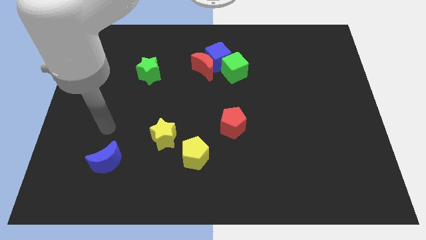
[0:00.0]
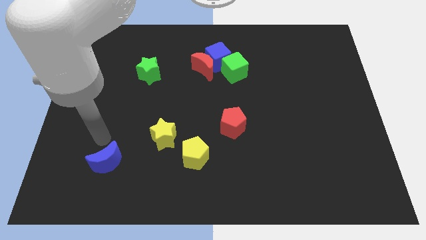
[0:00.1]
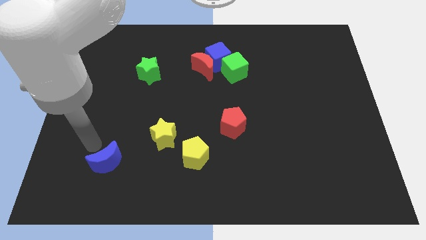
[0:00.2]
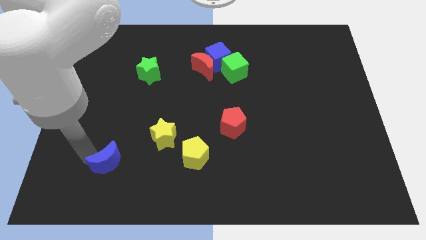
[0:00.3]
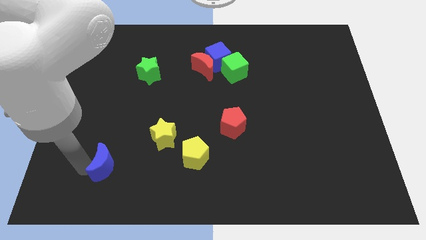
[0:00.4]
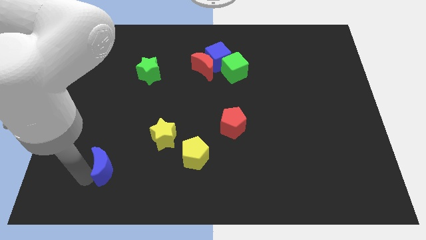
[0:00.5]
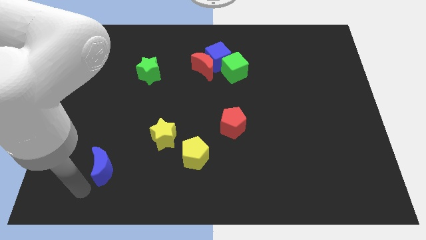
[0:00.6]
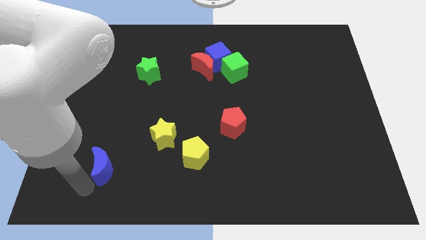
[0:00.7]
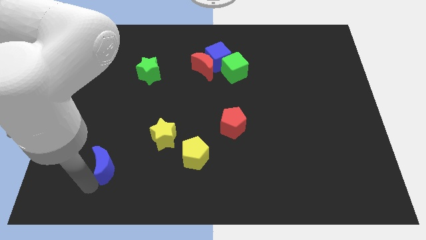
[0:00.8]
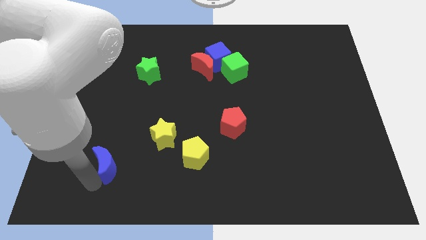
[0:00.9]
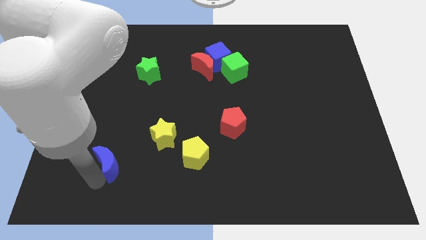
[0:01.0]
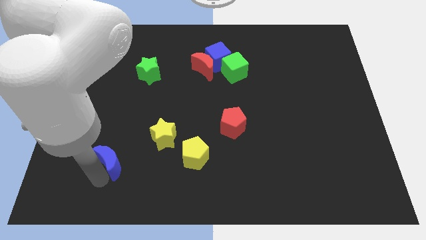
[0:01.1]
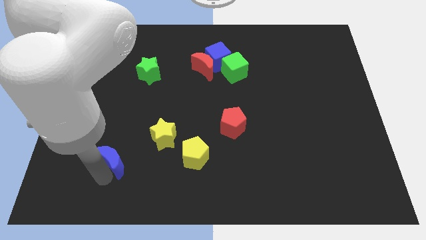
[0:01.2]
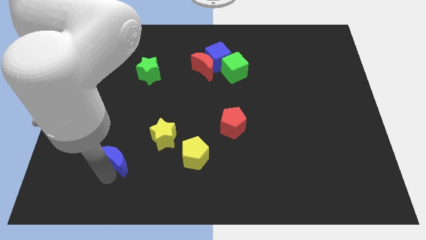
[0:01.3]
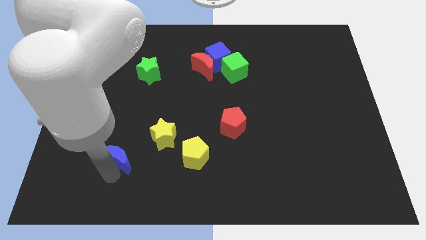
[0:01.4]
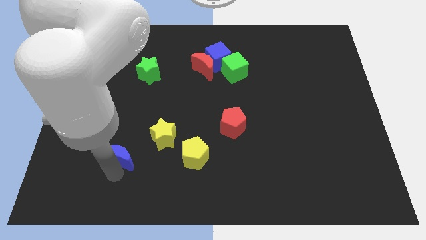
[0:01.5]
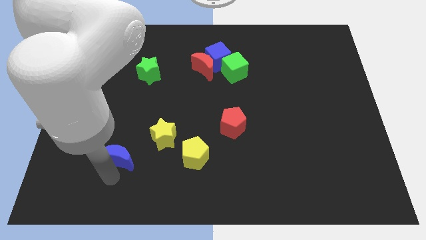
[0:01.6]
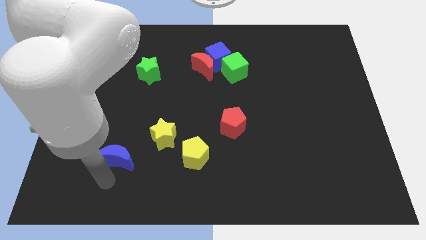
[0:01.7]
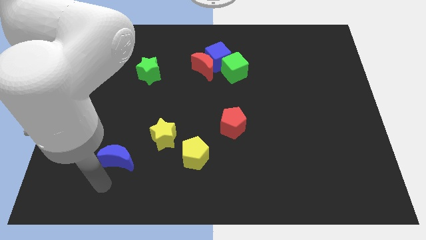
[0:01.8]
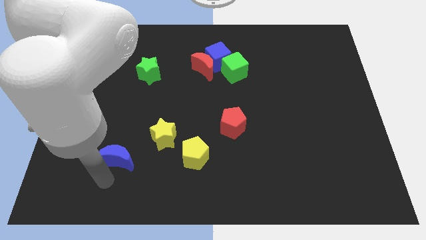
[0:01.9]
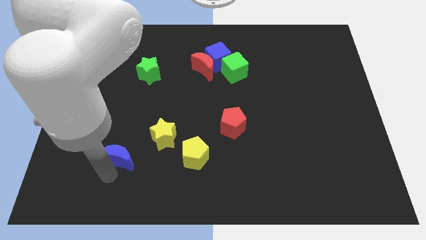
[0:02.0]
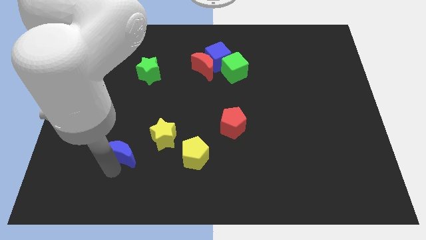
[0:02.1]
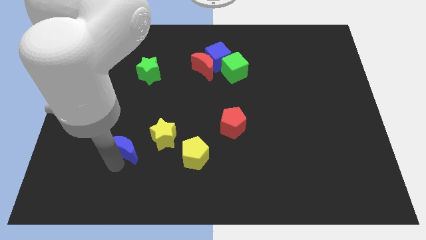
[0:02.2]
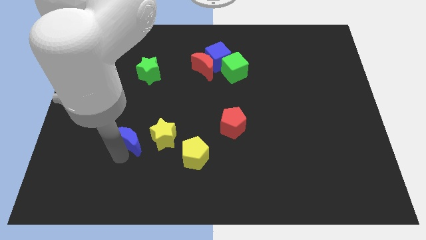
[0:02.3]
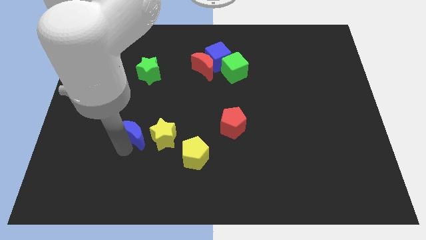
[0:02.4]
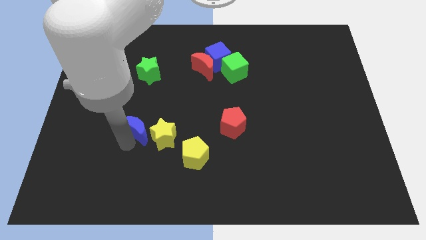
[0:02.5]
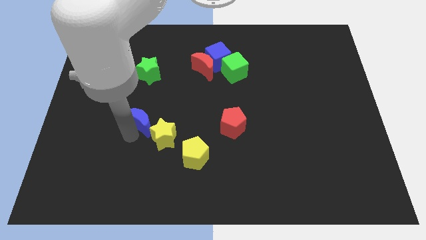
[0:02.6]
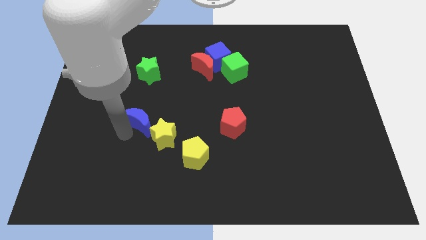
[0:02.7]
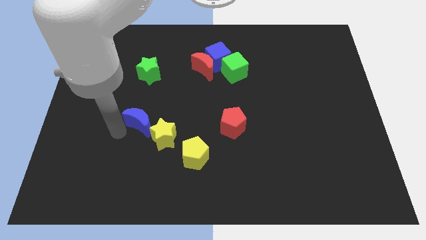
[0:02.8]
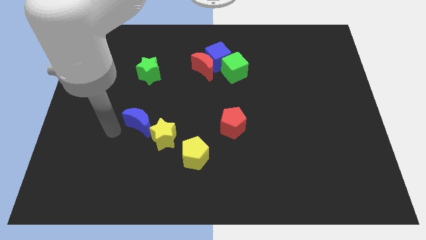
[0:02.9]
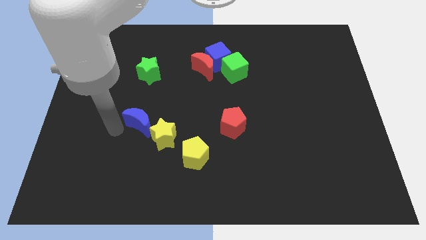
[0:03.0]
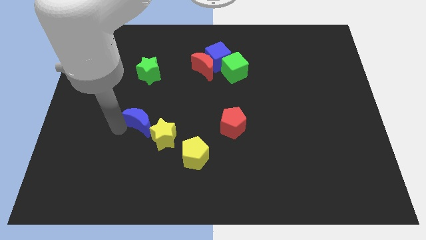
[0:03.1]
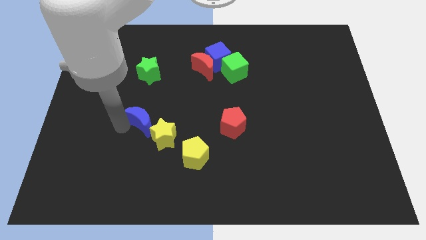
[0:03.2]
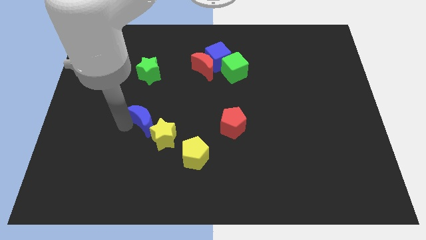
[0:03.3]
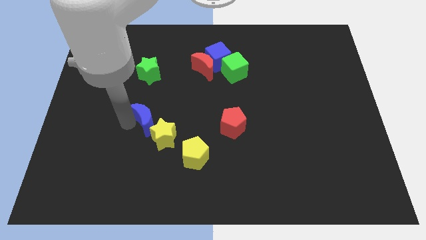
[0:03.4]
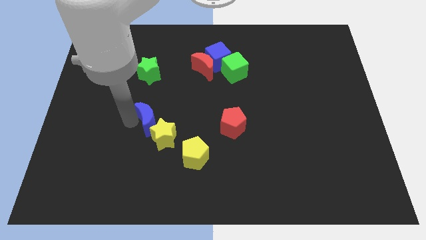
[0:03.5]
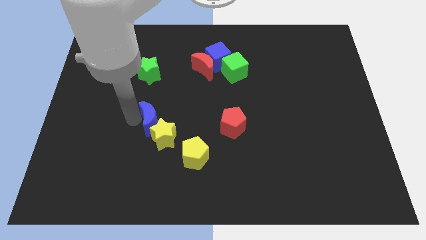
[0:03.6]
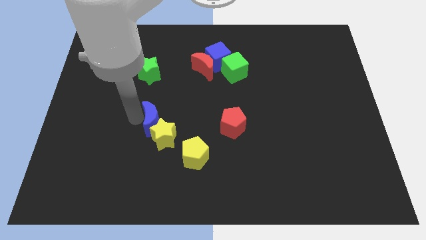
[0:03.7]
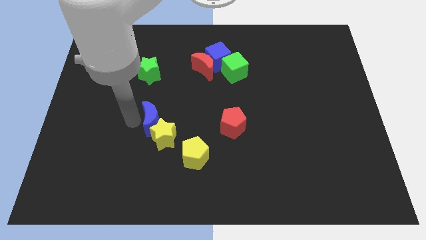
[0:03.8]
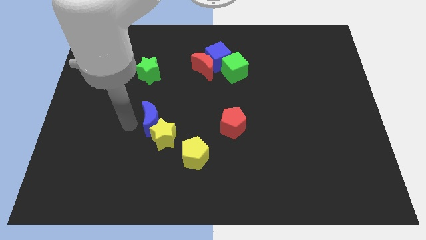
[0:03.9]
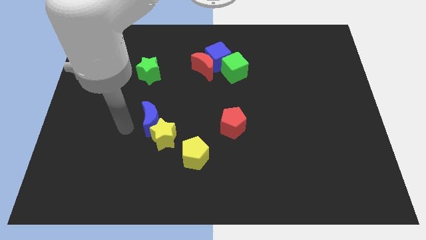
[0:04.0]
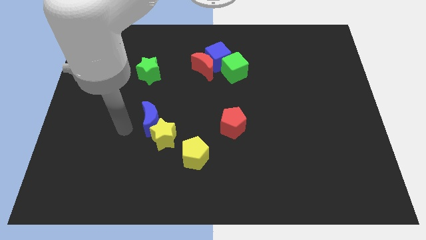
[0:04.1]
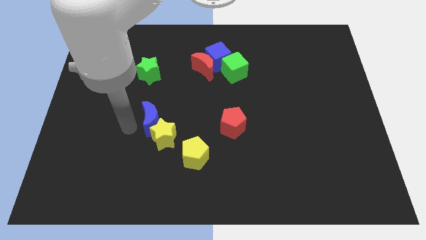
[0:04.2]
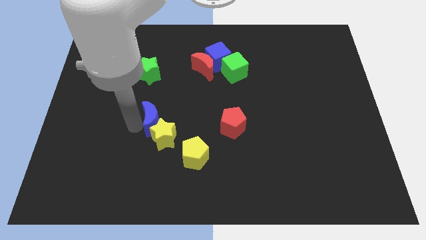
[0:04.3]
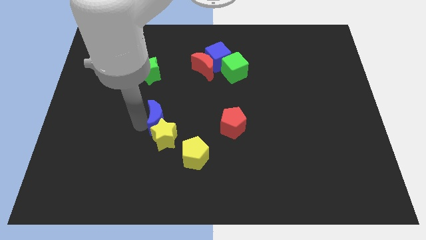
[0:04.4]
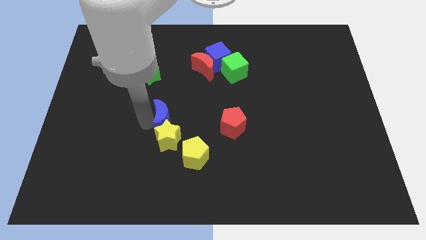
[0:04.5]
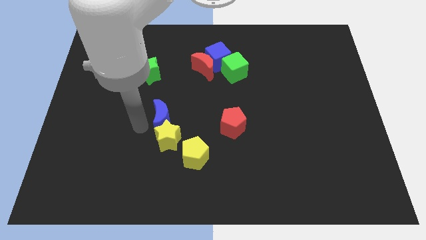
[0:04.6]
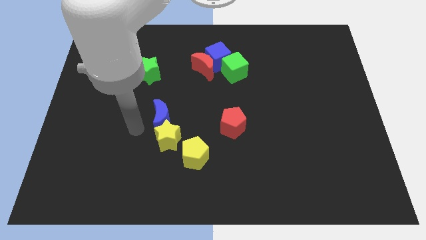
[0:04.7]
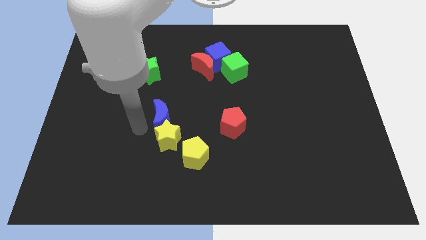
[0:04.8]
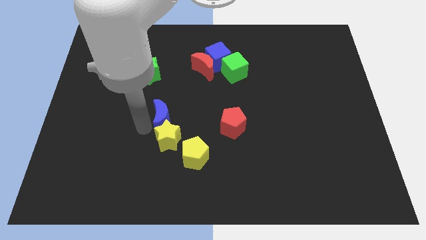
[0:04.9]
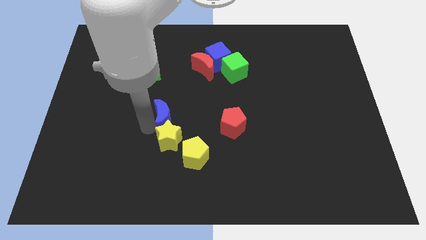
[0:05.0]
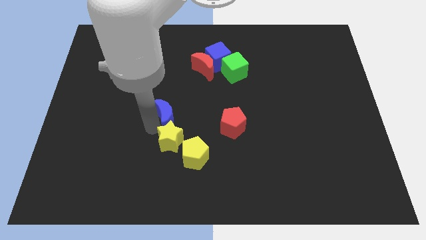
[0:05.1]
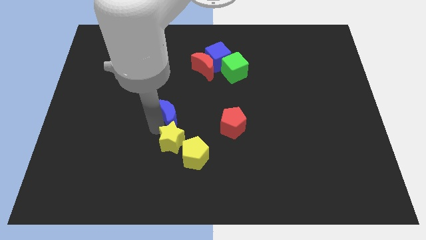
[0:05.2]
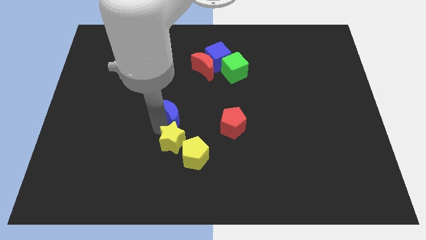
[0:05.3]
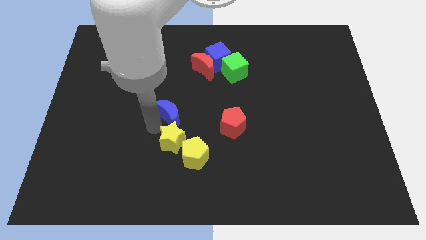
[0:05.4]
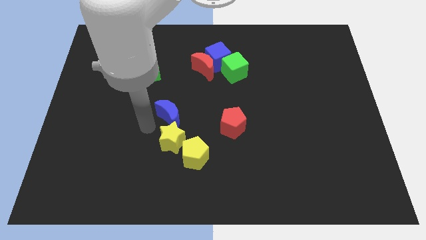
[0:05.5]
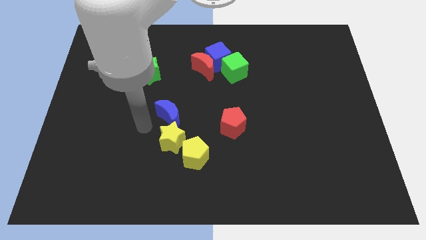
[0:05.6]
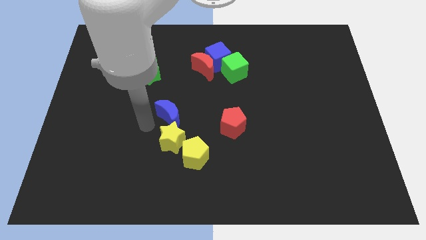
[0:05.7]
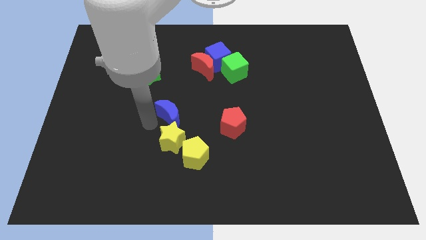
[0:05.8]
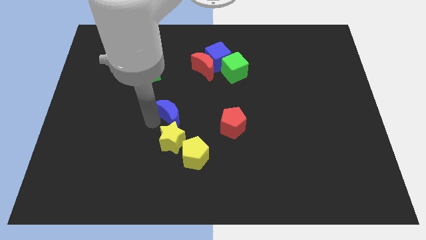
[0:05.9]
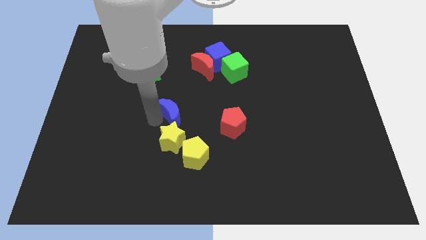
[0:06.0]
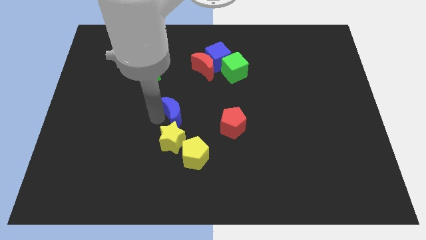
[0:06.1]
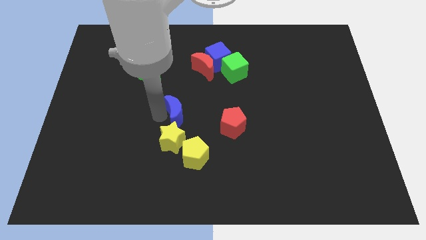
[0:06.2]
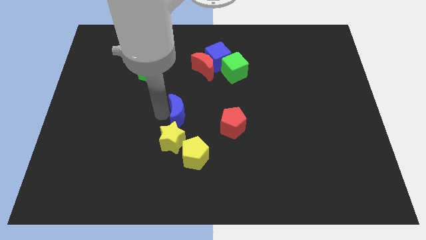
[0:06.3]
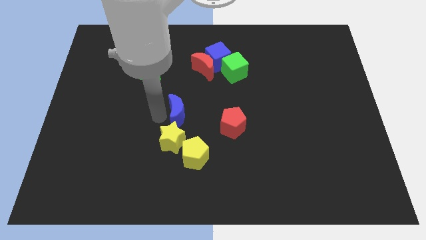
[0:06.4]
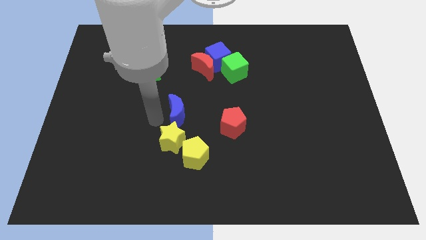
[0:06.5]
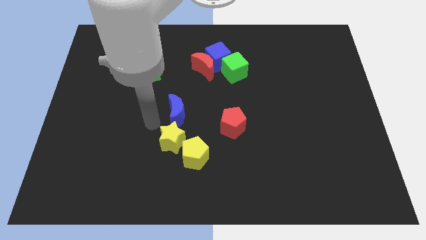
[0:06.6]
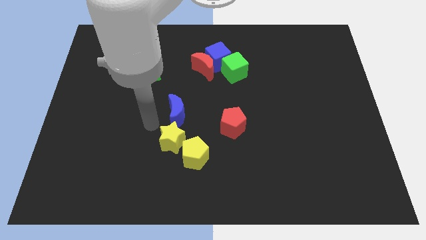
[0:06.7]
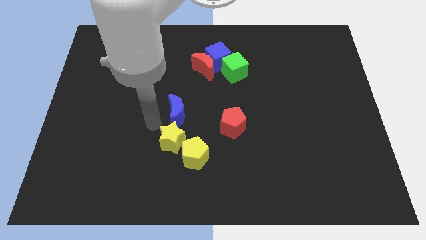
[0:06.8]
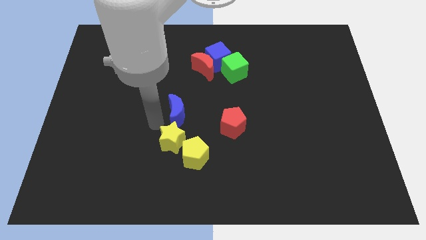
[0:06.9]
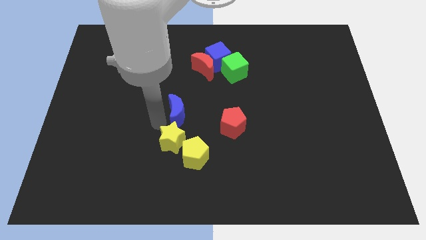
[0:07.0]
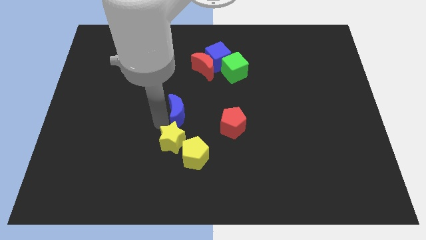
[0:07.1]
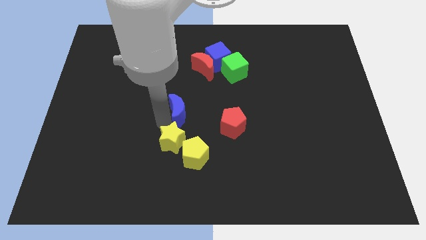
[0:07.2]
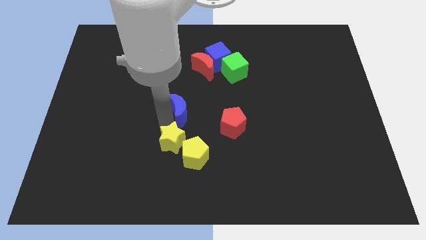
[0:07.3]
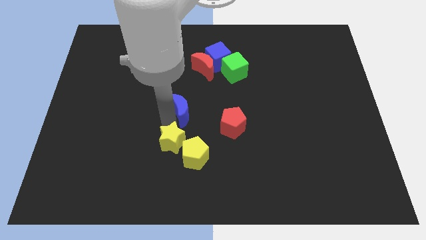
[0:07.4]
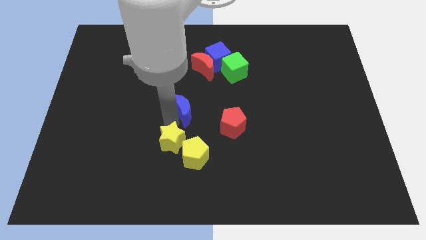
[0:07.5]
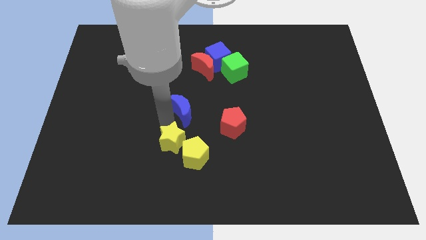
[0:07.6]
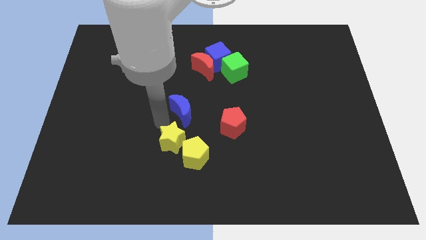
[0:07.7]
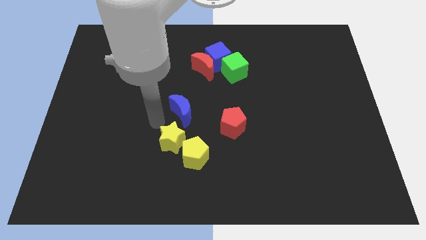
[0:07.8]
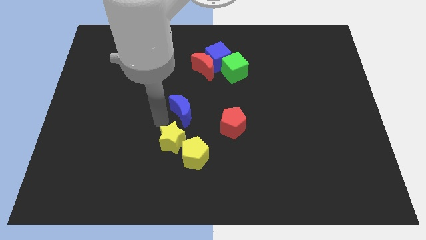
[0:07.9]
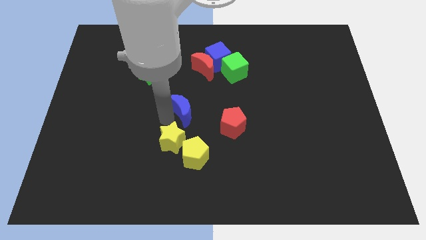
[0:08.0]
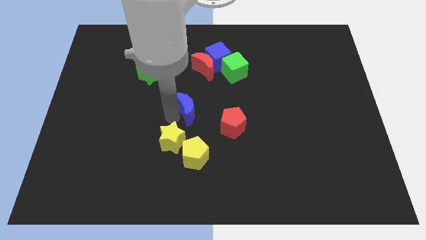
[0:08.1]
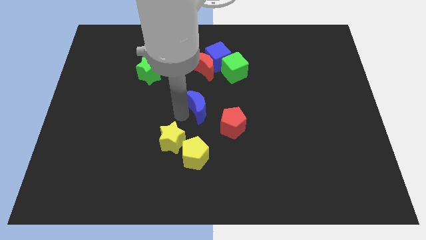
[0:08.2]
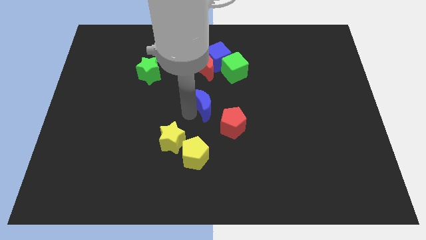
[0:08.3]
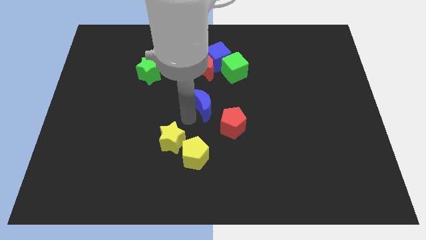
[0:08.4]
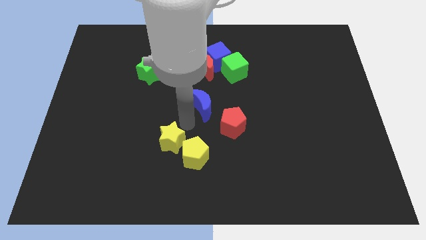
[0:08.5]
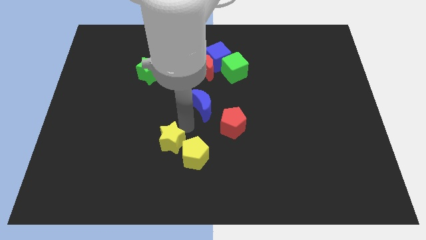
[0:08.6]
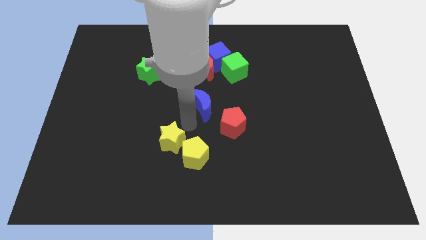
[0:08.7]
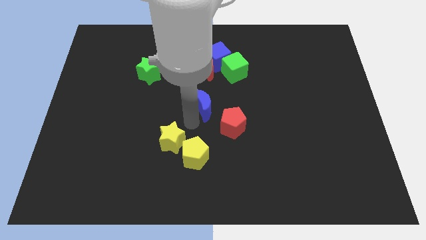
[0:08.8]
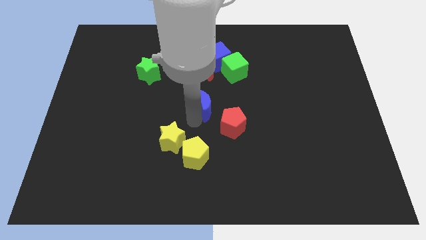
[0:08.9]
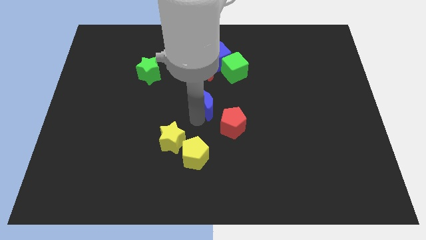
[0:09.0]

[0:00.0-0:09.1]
push the blue moon to the bottom side of the blue cube
